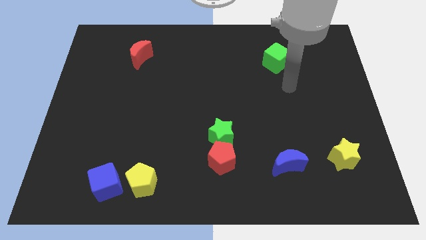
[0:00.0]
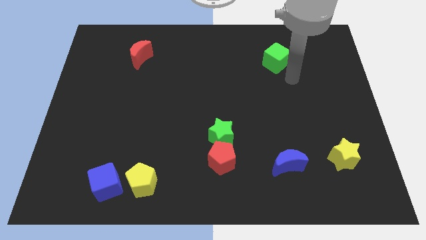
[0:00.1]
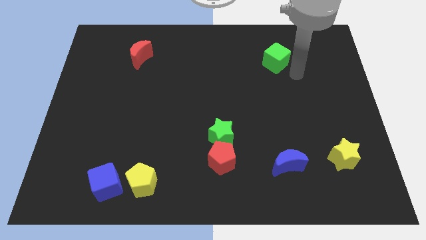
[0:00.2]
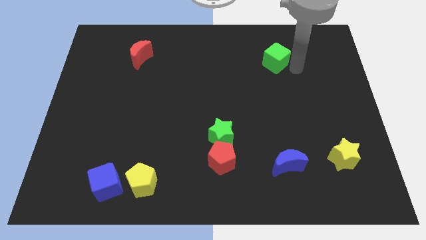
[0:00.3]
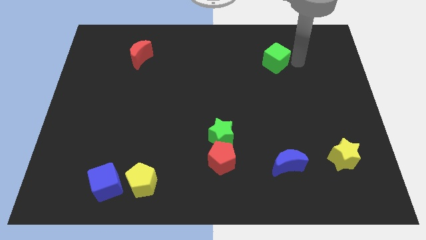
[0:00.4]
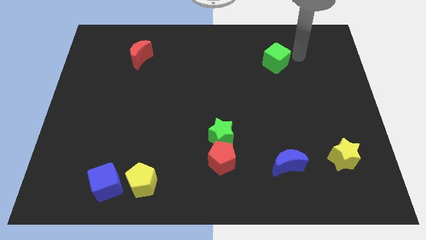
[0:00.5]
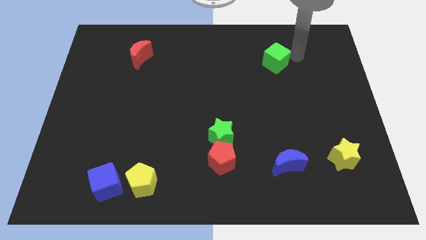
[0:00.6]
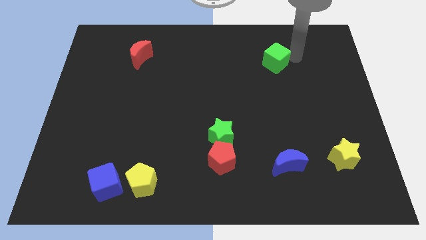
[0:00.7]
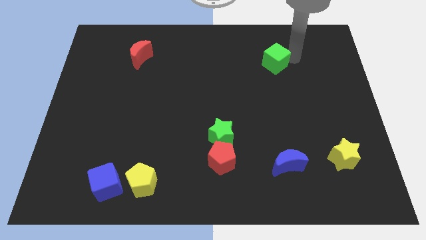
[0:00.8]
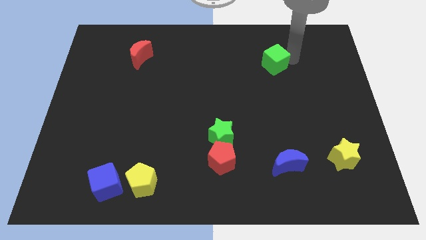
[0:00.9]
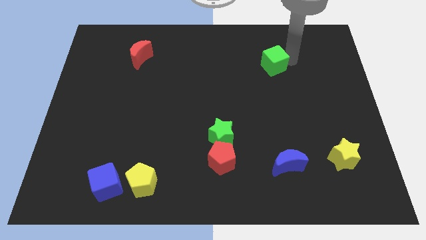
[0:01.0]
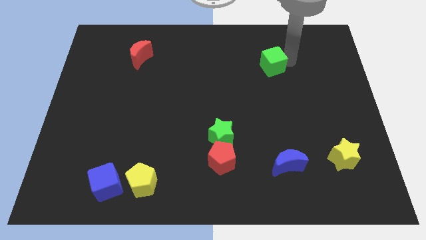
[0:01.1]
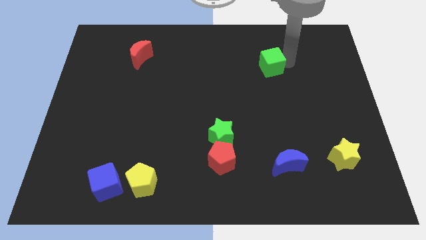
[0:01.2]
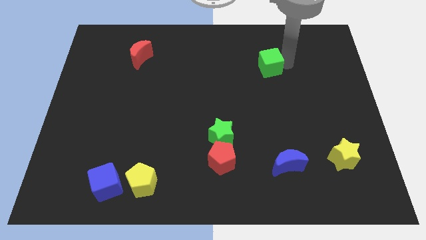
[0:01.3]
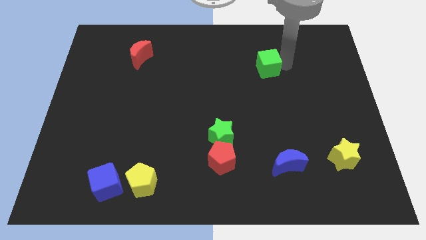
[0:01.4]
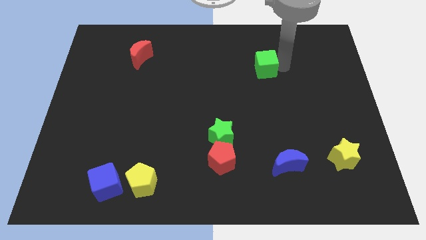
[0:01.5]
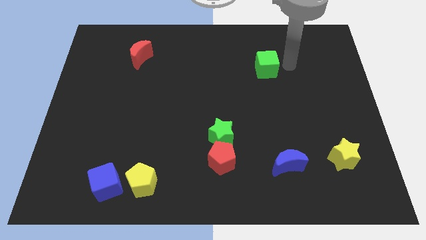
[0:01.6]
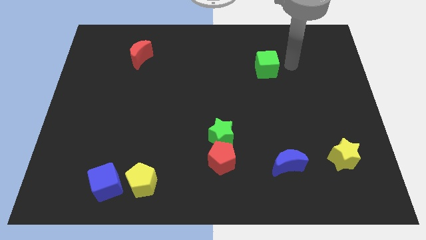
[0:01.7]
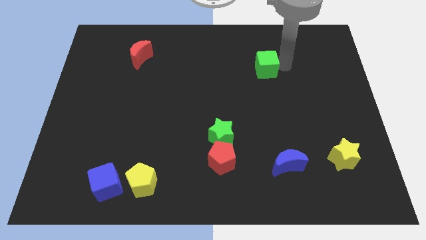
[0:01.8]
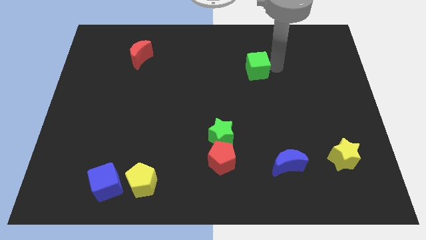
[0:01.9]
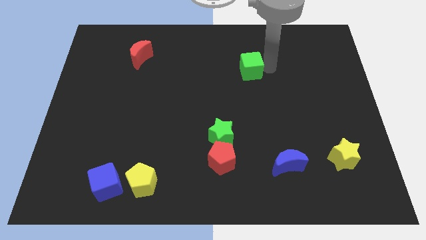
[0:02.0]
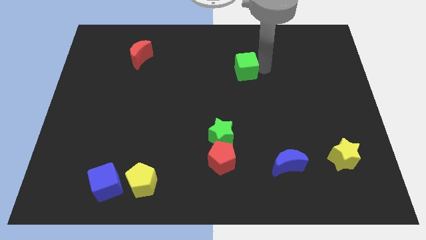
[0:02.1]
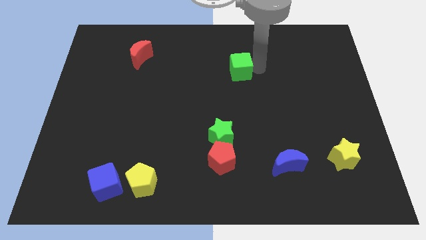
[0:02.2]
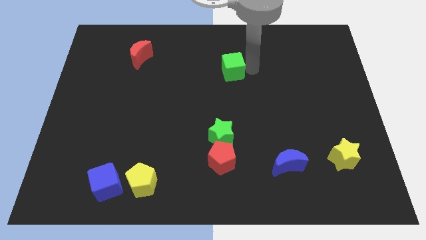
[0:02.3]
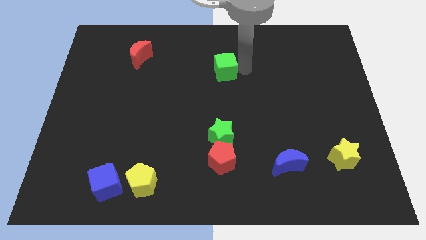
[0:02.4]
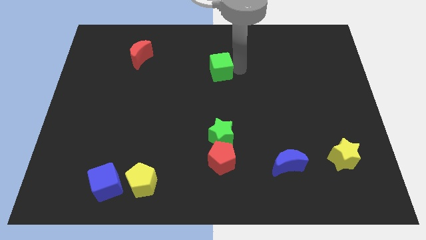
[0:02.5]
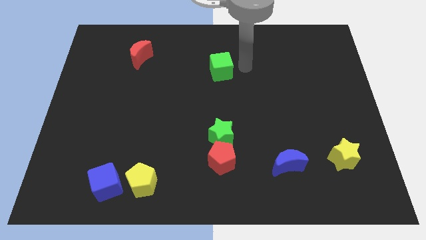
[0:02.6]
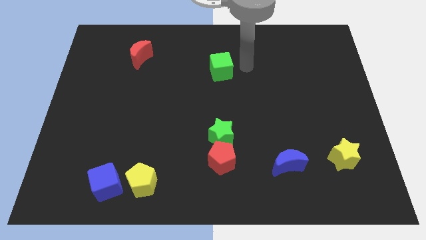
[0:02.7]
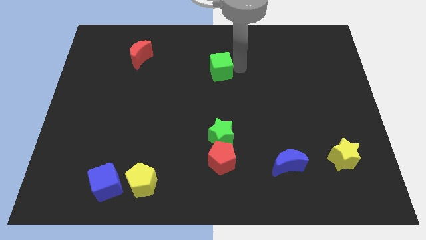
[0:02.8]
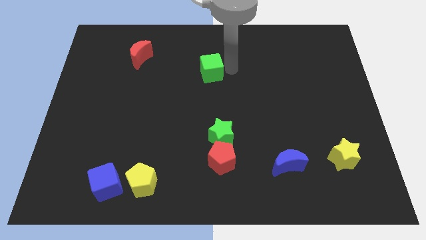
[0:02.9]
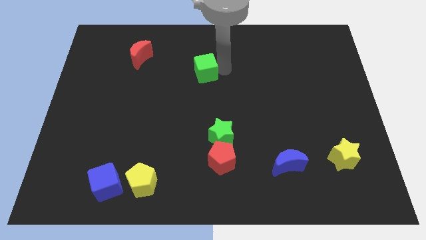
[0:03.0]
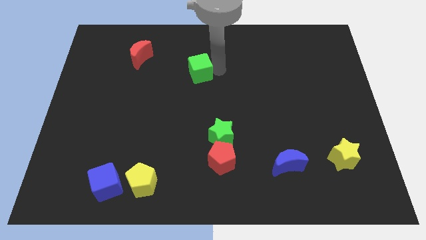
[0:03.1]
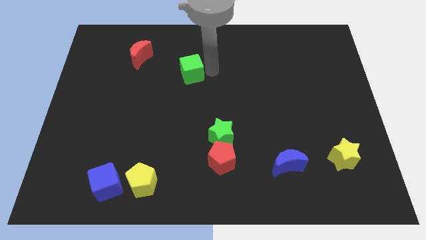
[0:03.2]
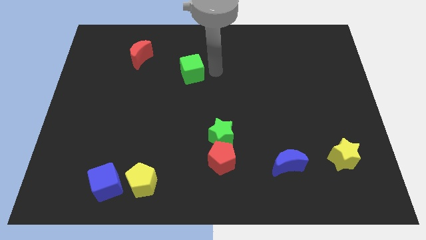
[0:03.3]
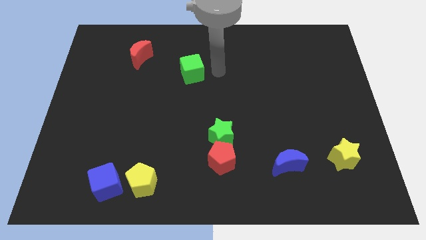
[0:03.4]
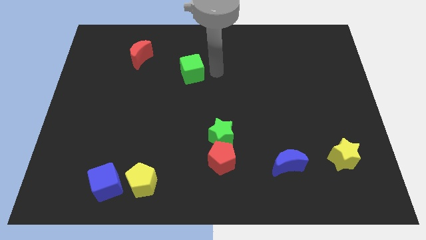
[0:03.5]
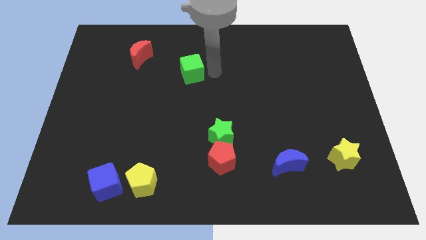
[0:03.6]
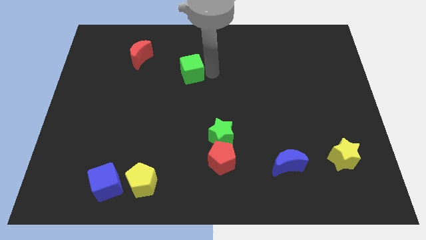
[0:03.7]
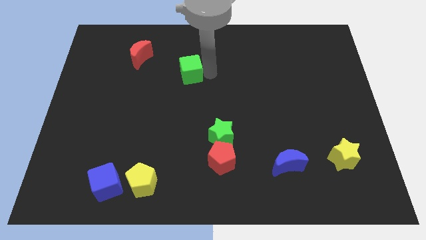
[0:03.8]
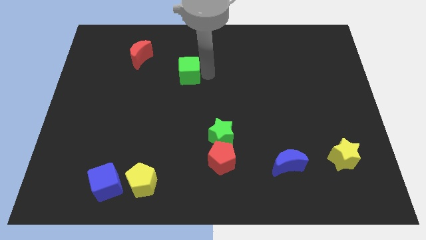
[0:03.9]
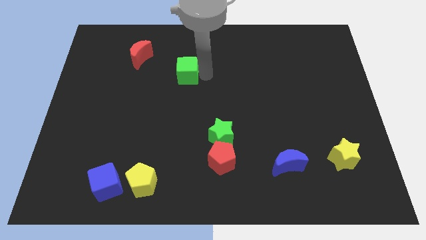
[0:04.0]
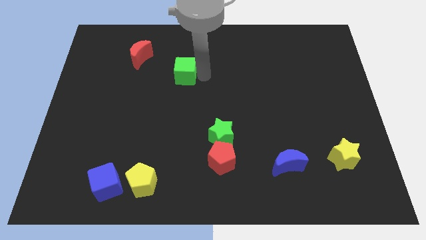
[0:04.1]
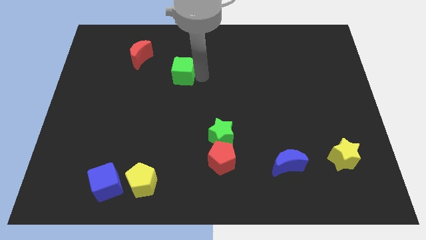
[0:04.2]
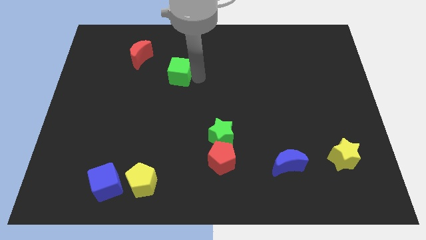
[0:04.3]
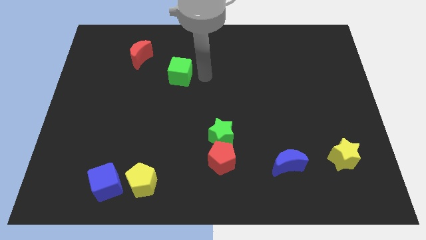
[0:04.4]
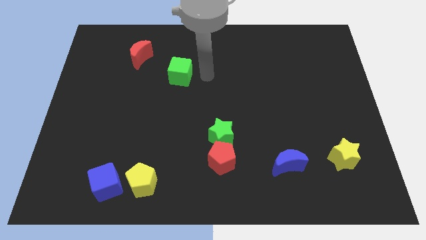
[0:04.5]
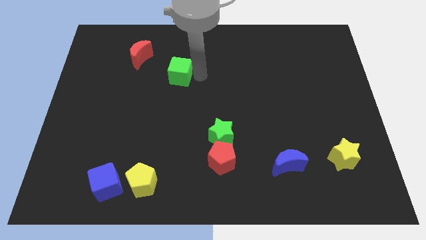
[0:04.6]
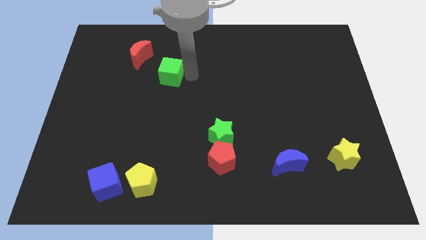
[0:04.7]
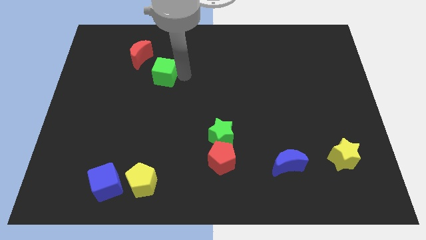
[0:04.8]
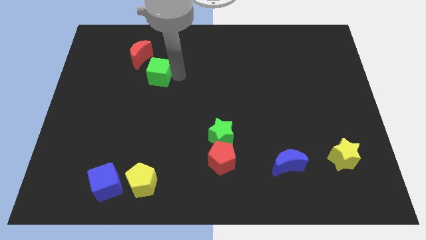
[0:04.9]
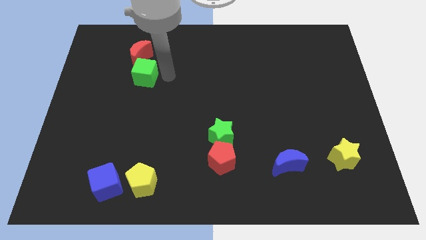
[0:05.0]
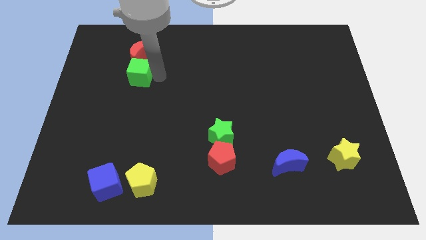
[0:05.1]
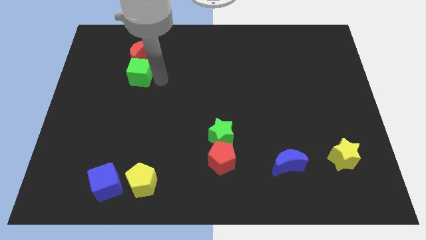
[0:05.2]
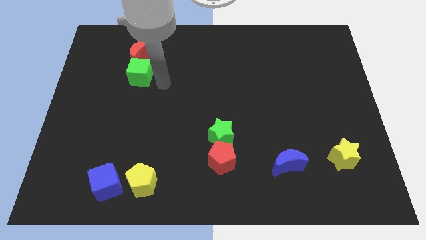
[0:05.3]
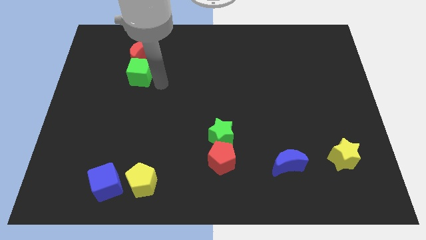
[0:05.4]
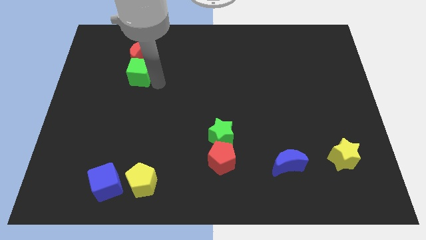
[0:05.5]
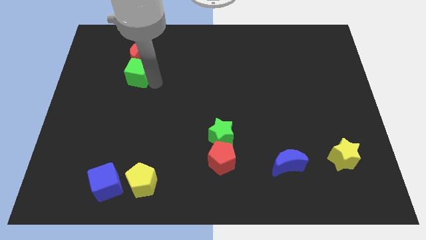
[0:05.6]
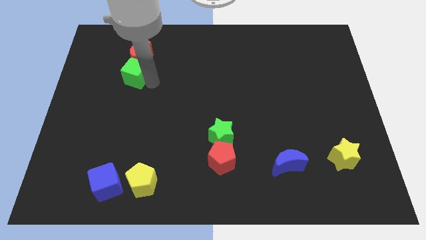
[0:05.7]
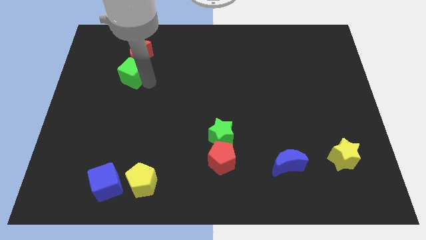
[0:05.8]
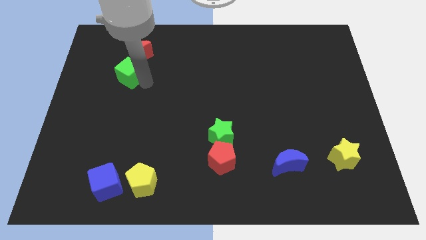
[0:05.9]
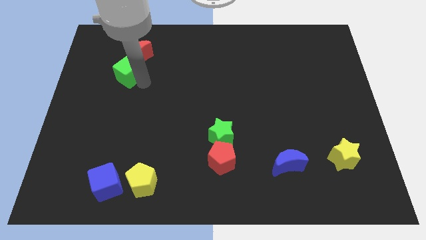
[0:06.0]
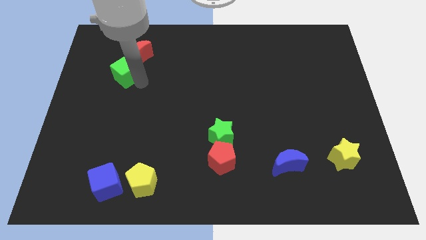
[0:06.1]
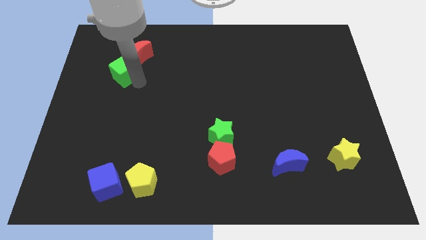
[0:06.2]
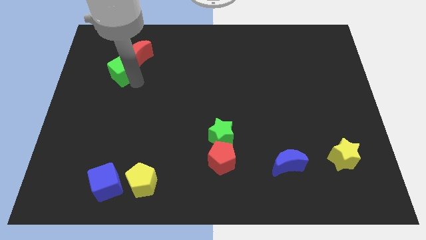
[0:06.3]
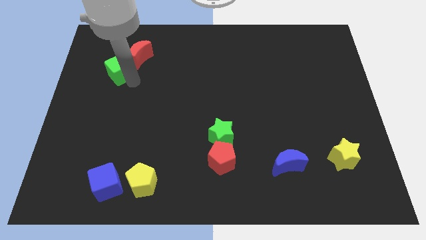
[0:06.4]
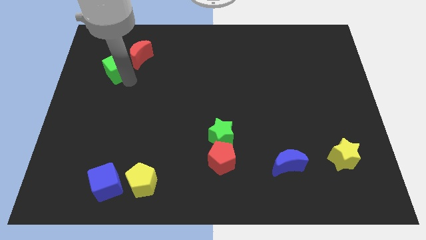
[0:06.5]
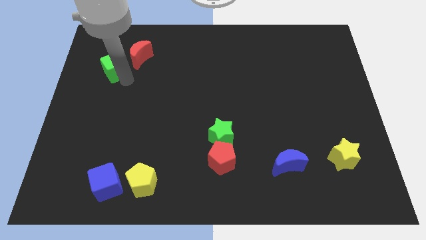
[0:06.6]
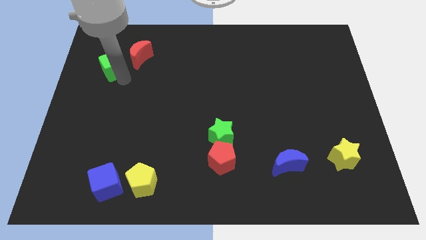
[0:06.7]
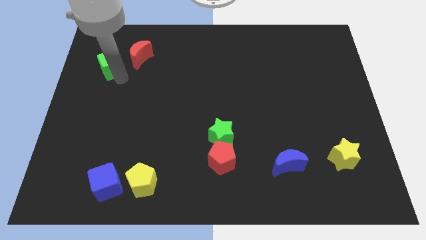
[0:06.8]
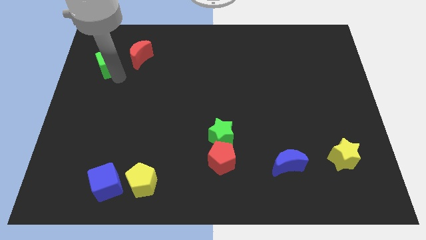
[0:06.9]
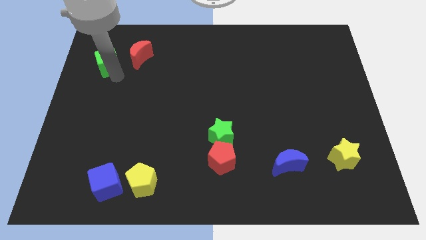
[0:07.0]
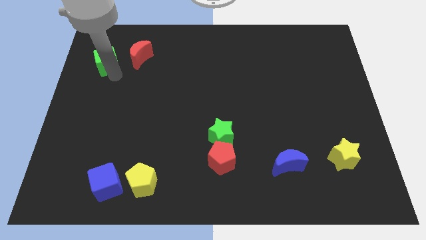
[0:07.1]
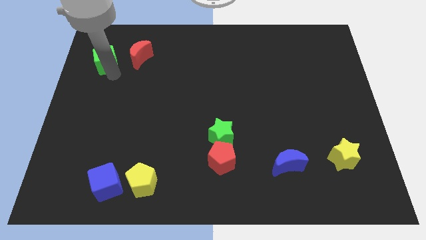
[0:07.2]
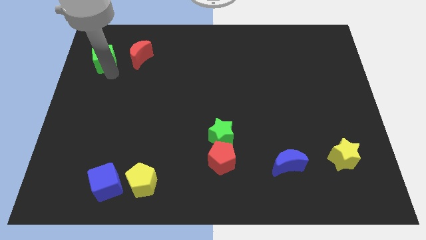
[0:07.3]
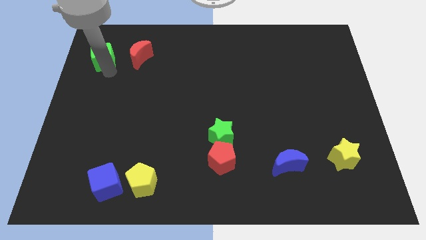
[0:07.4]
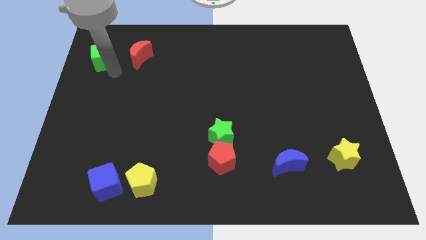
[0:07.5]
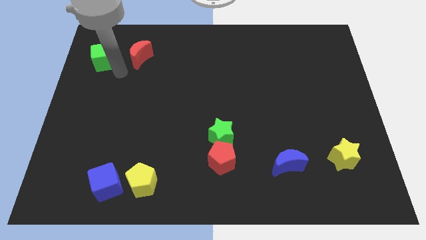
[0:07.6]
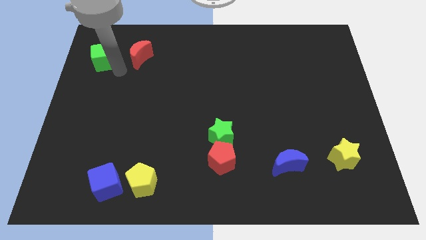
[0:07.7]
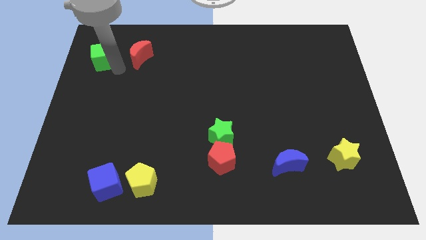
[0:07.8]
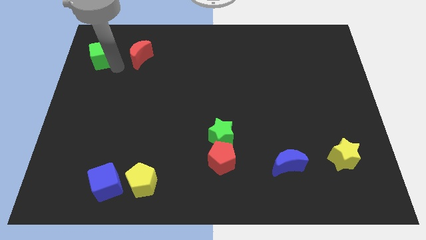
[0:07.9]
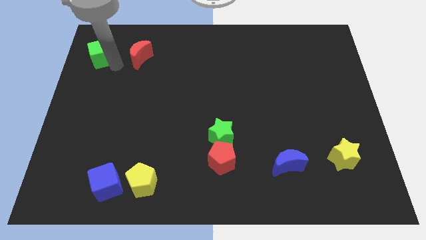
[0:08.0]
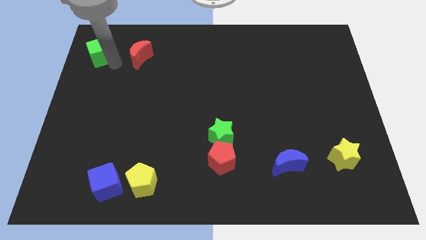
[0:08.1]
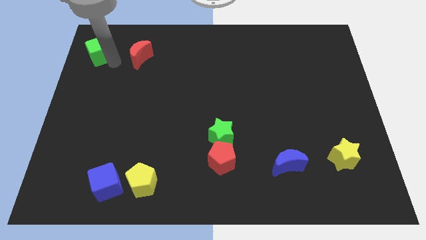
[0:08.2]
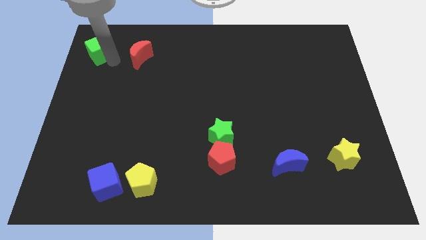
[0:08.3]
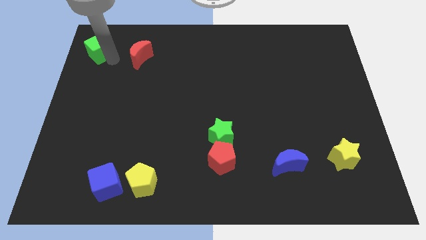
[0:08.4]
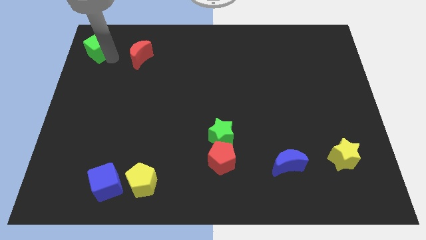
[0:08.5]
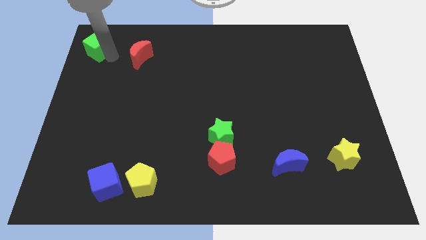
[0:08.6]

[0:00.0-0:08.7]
slide the green cube to the upper left corner
